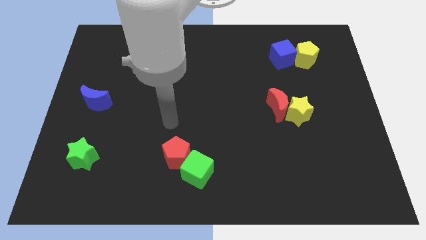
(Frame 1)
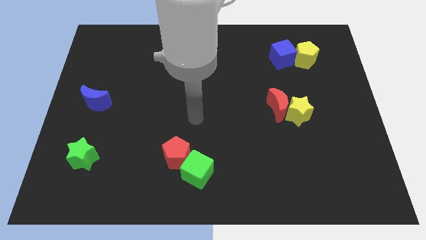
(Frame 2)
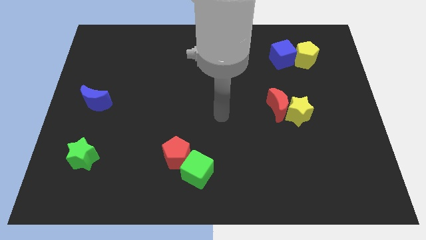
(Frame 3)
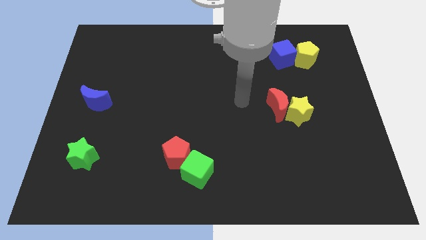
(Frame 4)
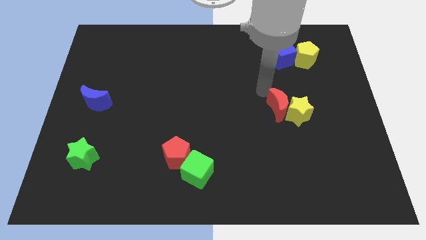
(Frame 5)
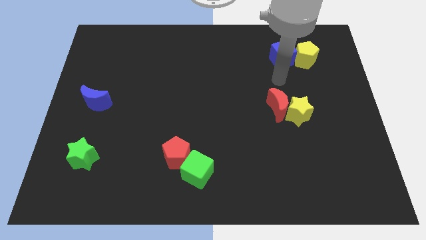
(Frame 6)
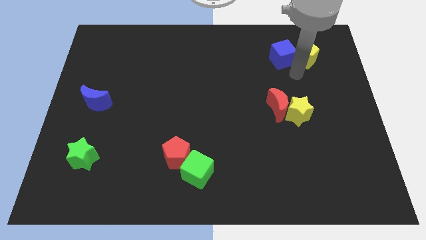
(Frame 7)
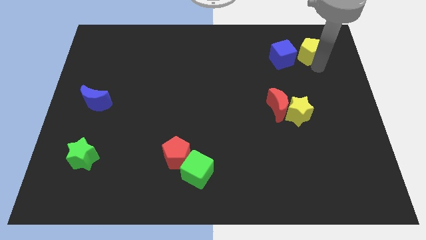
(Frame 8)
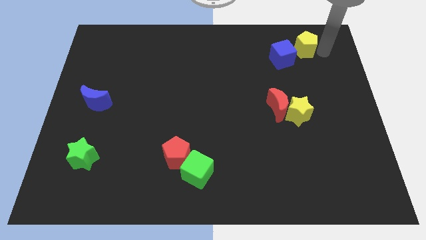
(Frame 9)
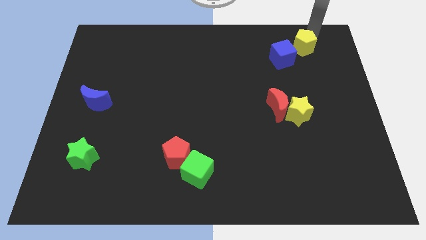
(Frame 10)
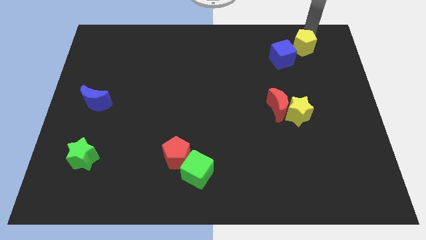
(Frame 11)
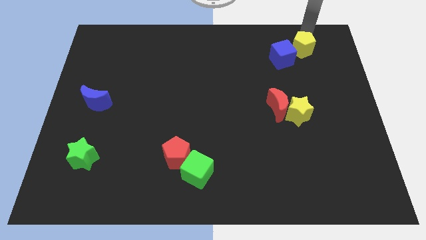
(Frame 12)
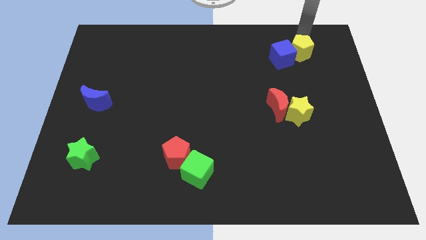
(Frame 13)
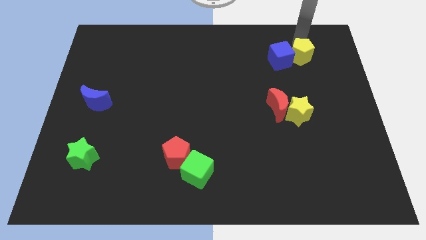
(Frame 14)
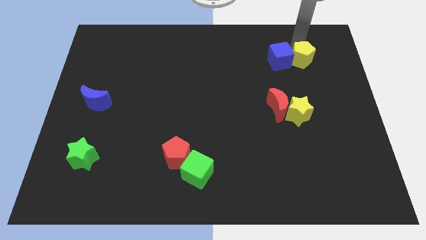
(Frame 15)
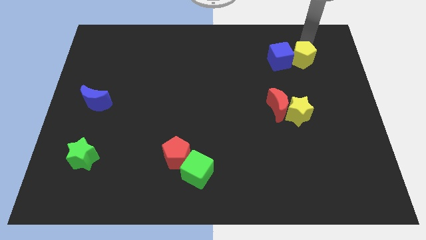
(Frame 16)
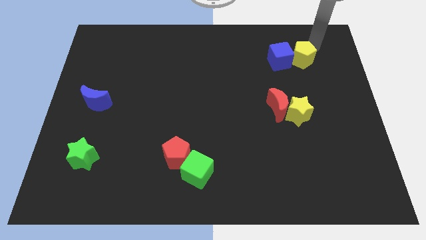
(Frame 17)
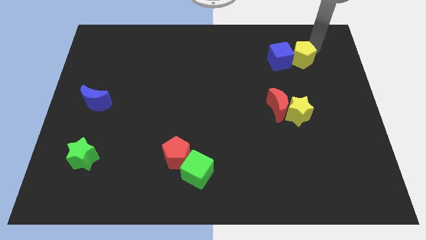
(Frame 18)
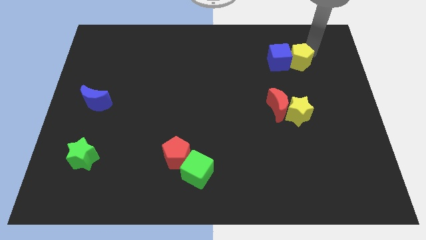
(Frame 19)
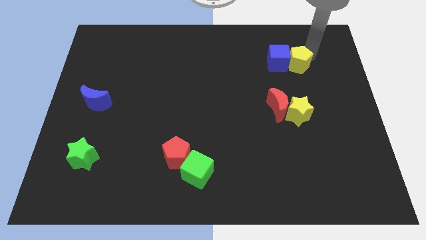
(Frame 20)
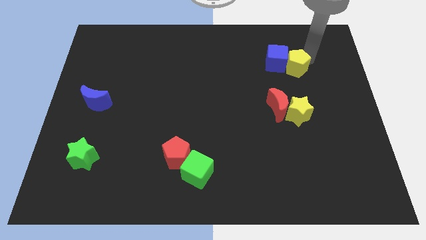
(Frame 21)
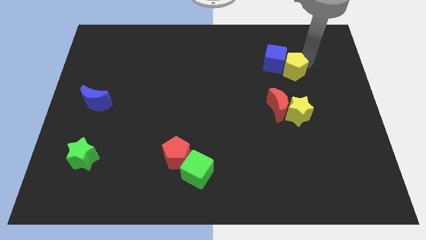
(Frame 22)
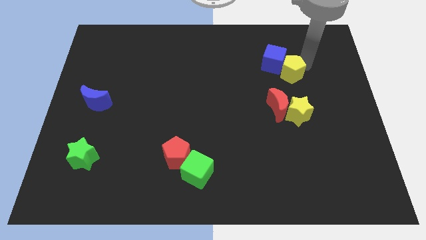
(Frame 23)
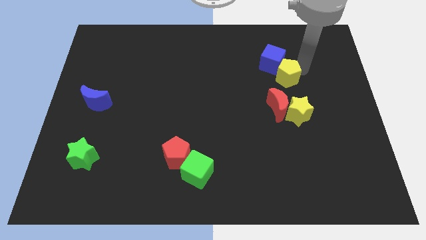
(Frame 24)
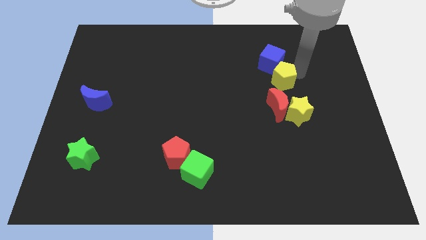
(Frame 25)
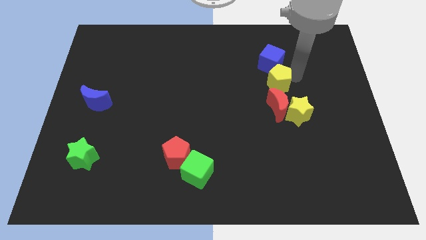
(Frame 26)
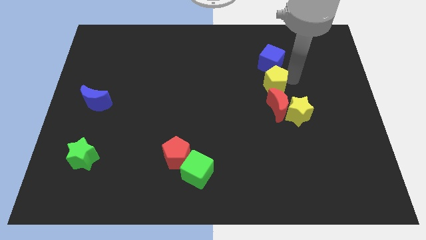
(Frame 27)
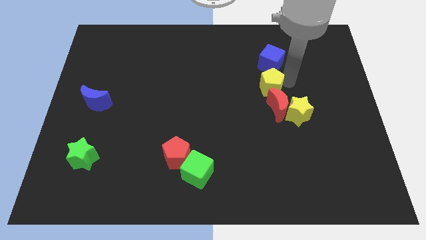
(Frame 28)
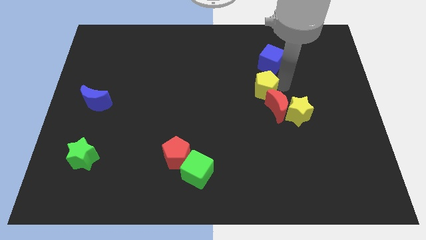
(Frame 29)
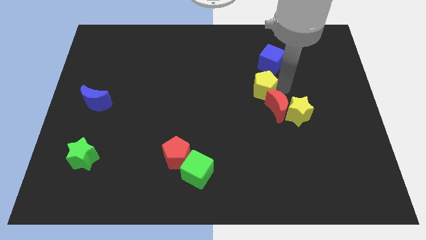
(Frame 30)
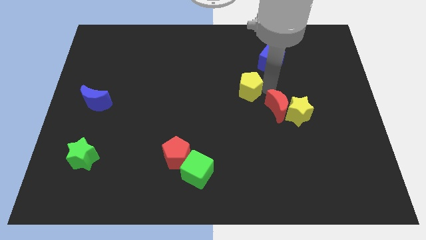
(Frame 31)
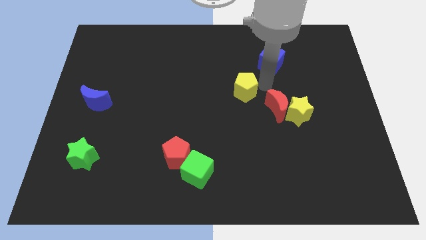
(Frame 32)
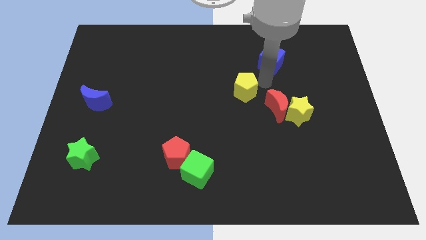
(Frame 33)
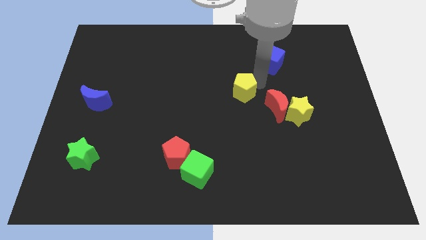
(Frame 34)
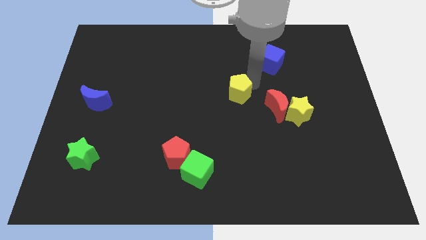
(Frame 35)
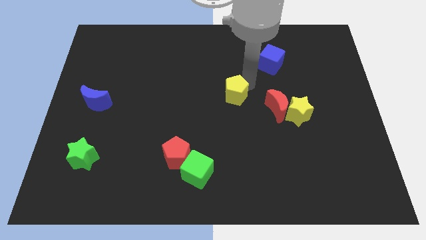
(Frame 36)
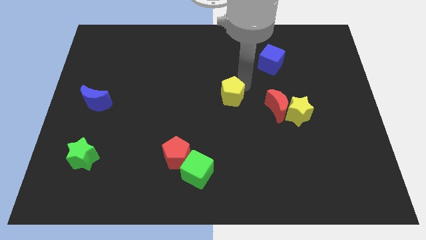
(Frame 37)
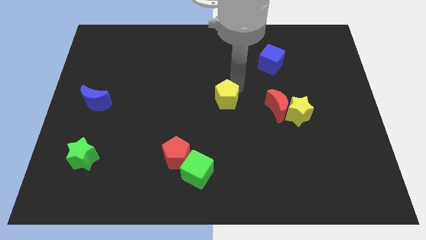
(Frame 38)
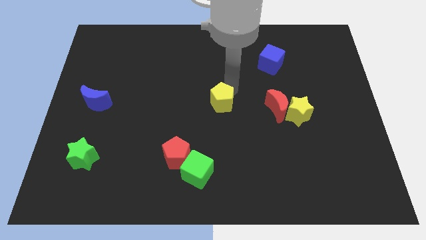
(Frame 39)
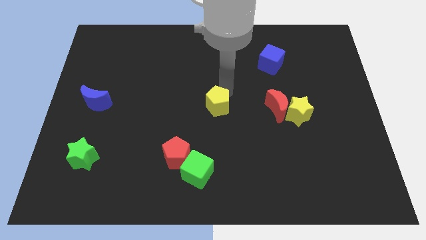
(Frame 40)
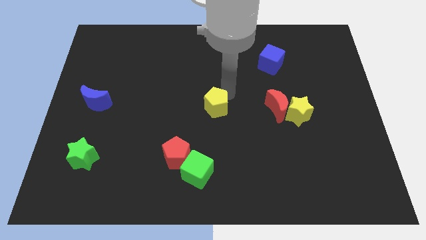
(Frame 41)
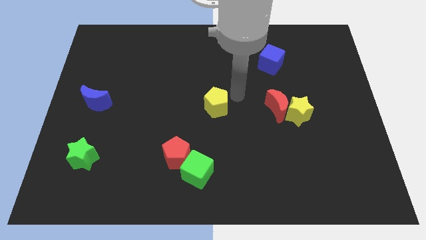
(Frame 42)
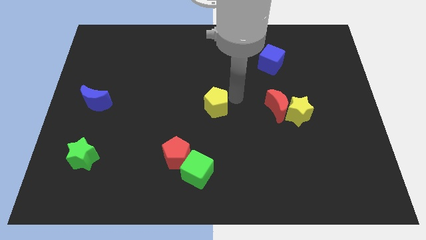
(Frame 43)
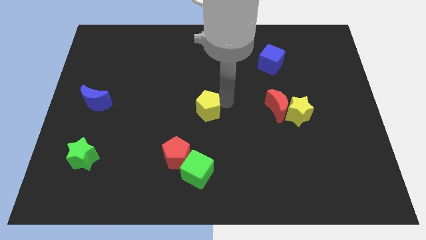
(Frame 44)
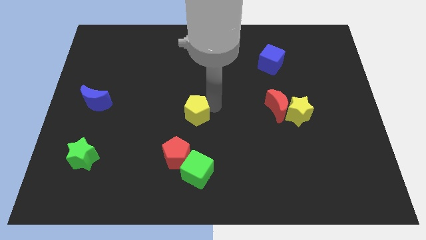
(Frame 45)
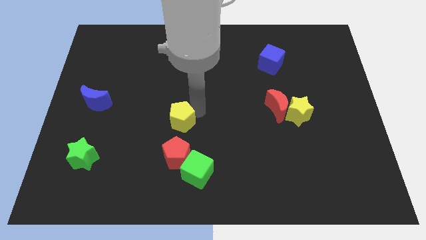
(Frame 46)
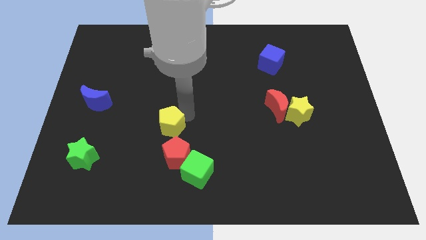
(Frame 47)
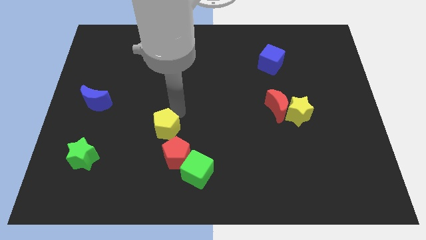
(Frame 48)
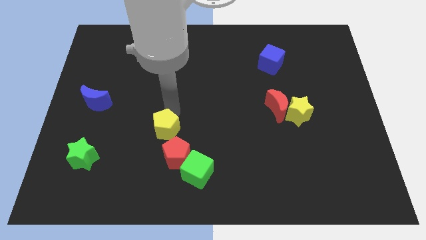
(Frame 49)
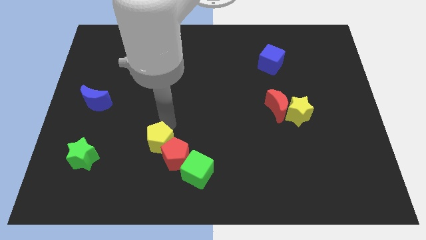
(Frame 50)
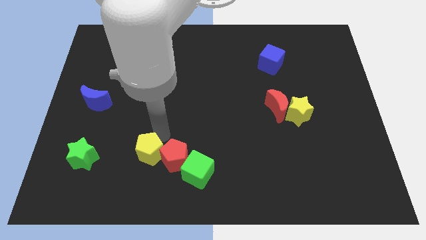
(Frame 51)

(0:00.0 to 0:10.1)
slide the yellow pentagon just left of the green cube

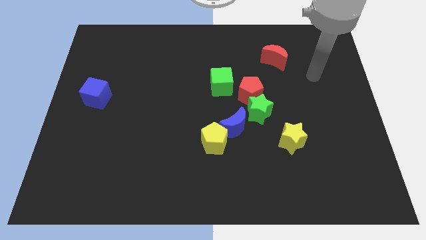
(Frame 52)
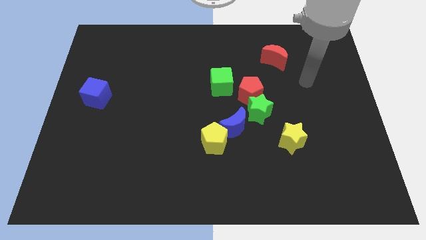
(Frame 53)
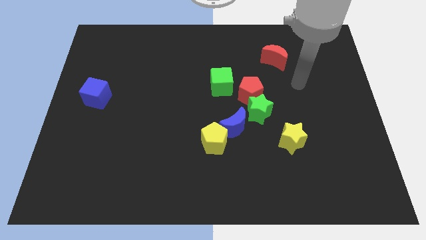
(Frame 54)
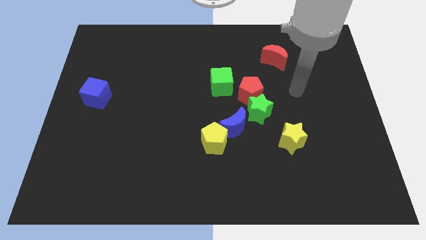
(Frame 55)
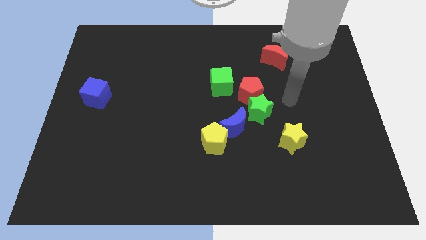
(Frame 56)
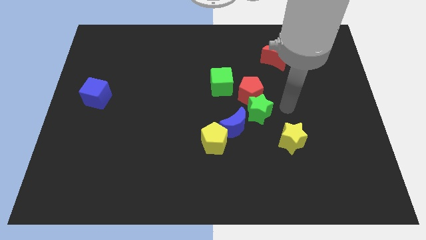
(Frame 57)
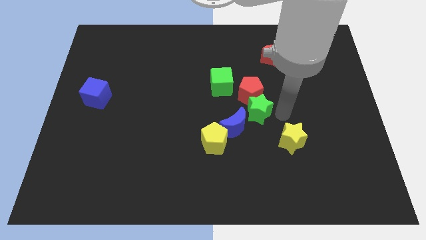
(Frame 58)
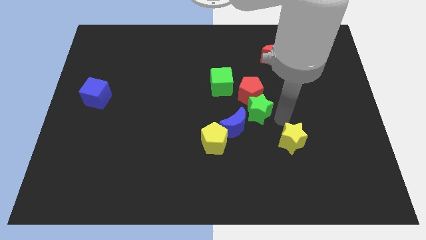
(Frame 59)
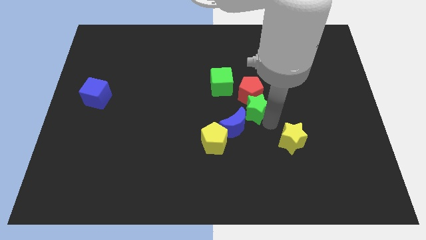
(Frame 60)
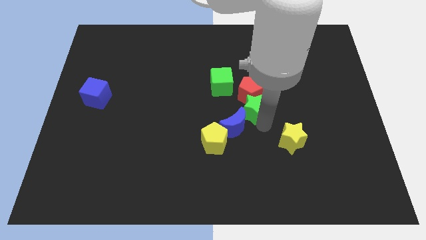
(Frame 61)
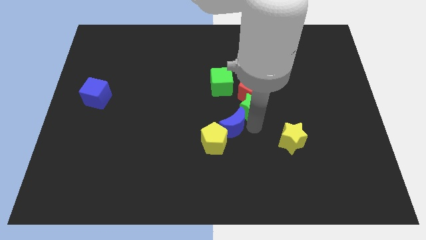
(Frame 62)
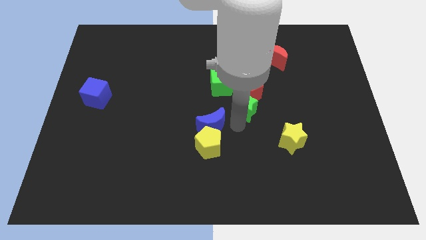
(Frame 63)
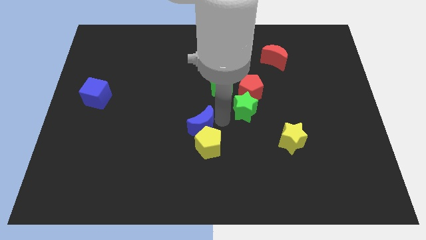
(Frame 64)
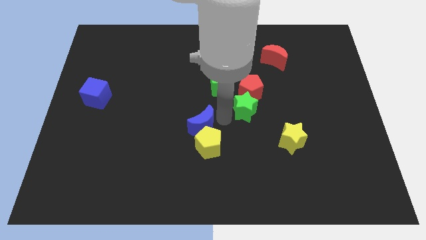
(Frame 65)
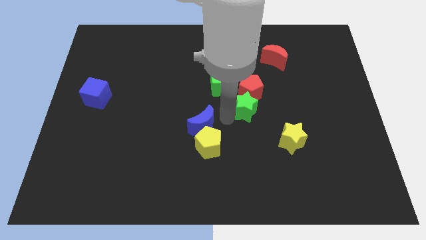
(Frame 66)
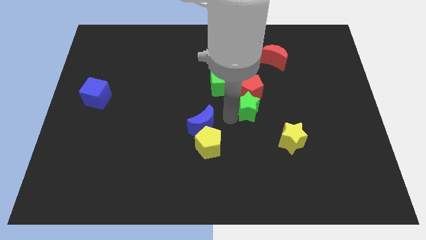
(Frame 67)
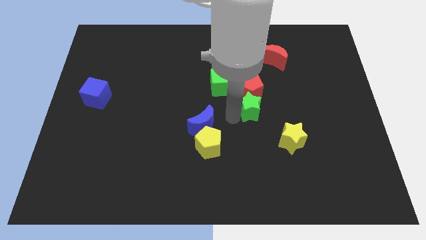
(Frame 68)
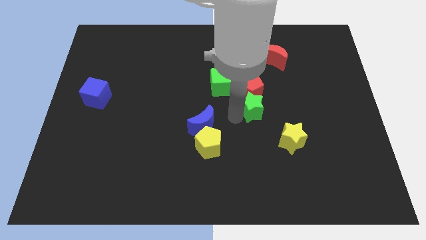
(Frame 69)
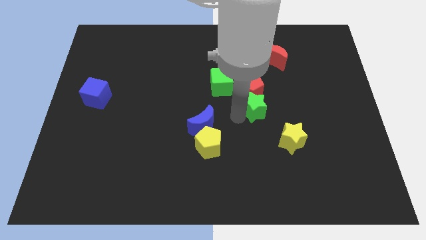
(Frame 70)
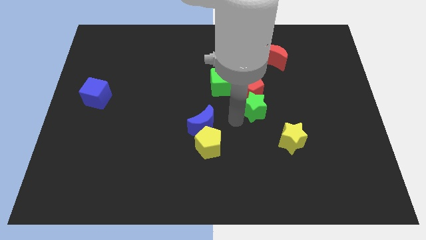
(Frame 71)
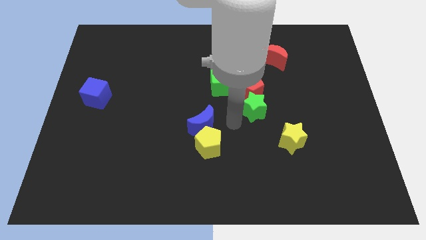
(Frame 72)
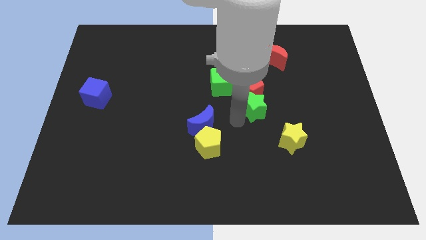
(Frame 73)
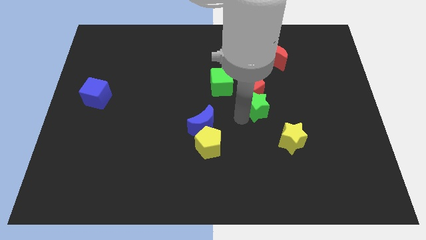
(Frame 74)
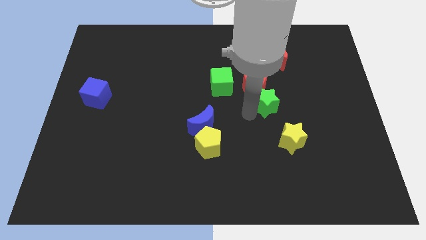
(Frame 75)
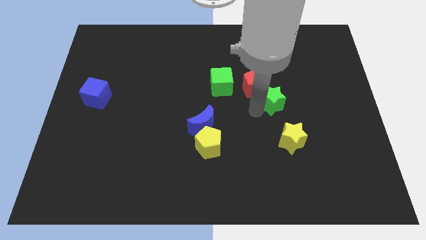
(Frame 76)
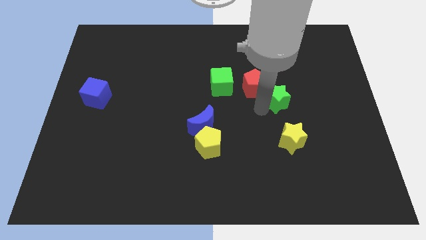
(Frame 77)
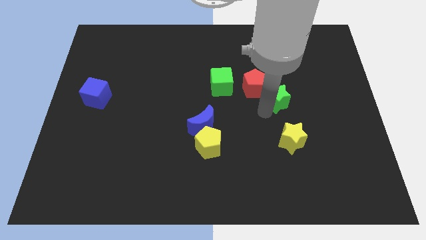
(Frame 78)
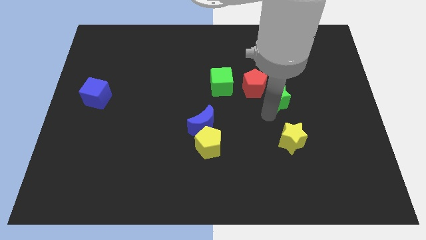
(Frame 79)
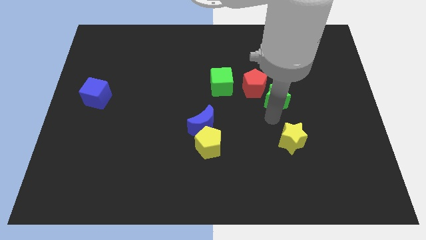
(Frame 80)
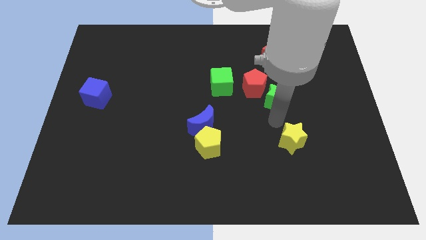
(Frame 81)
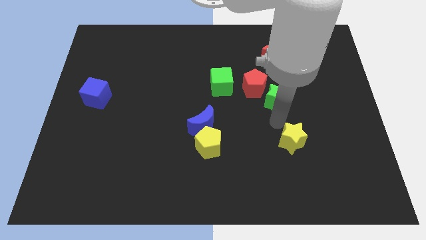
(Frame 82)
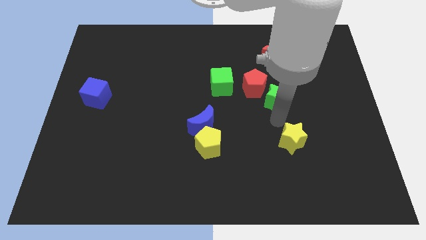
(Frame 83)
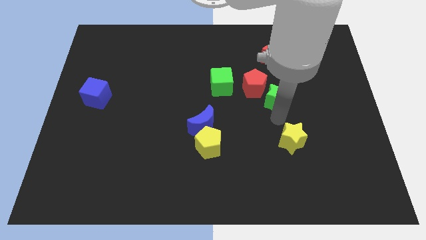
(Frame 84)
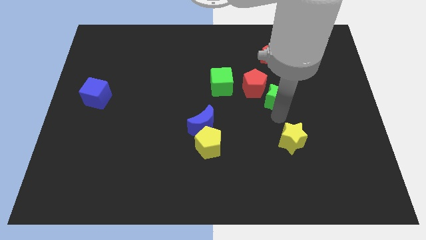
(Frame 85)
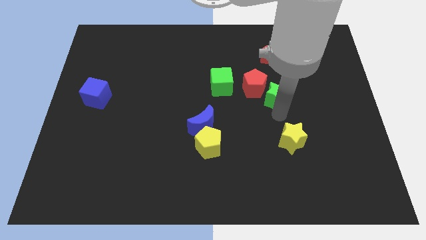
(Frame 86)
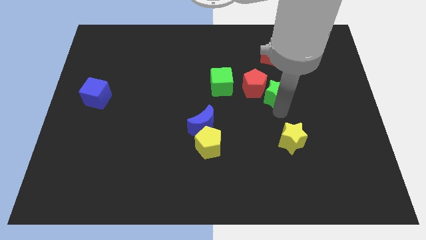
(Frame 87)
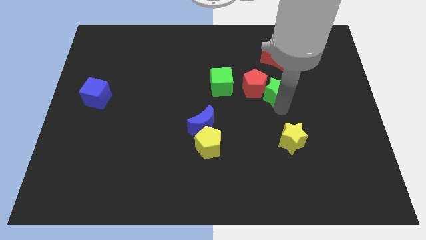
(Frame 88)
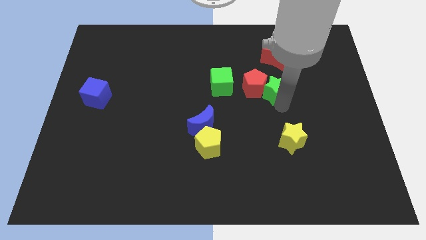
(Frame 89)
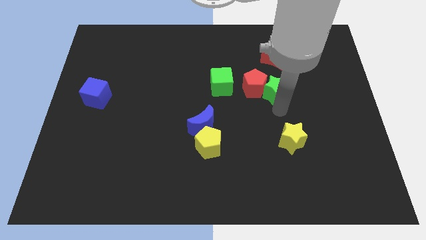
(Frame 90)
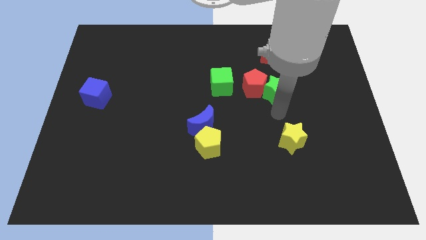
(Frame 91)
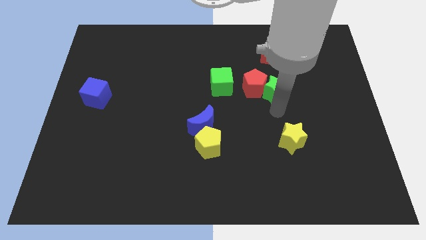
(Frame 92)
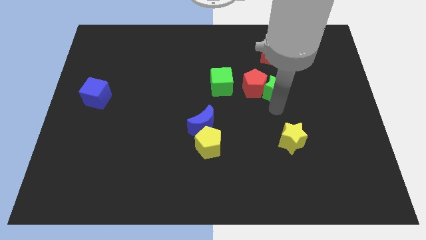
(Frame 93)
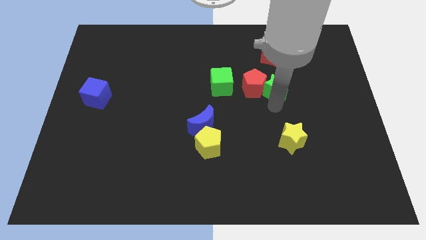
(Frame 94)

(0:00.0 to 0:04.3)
slide the green star to the top right side of the red pentagon
